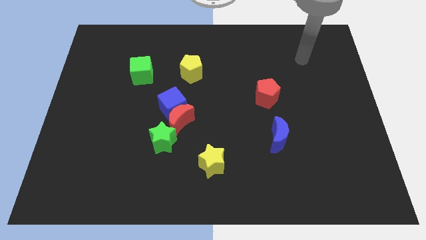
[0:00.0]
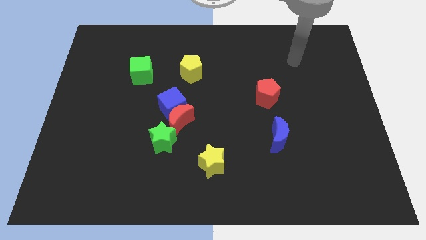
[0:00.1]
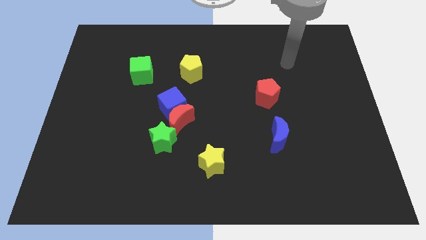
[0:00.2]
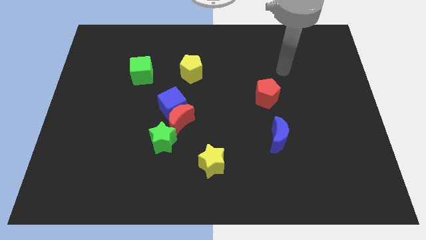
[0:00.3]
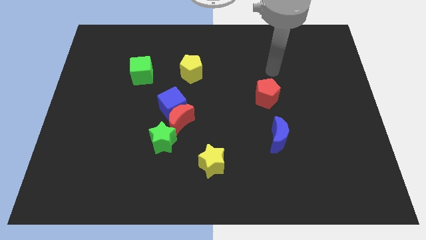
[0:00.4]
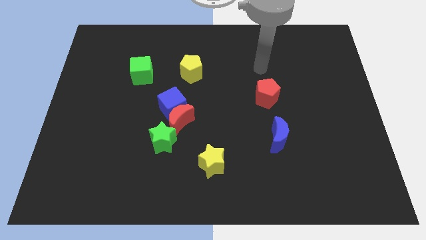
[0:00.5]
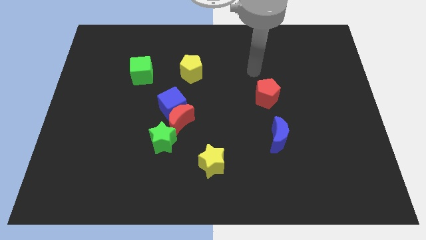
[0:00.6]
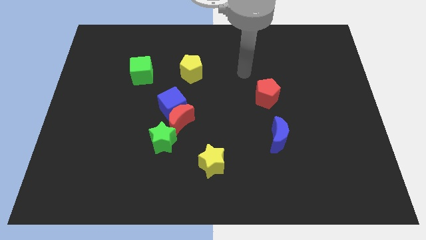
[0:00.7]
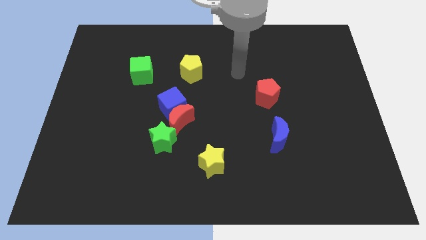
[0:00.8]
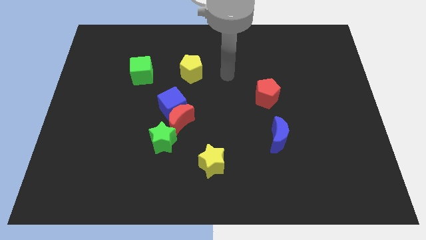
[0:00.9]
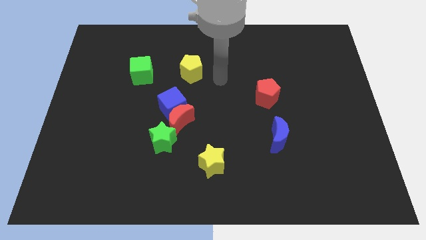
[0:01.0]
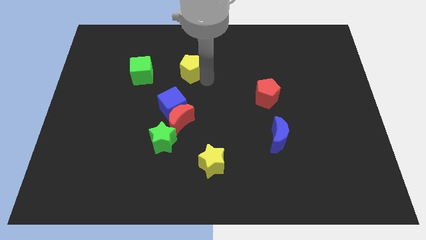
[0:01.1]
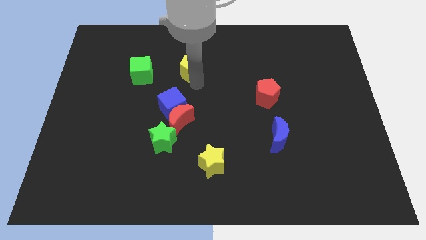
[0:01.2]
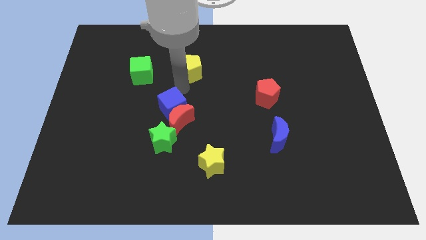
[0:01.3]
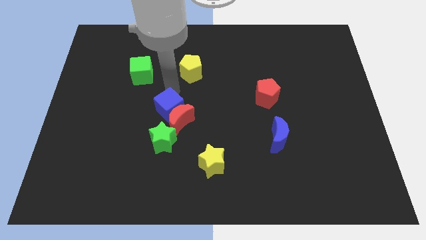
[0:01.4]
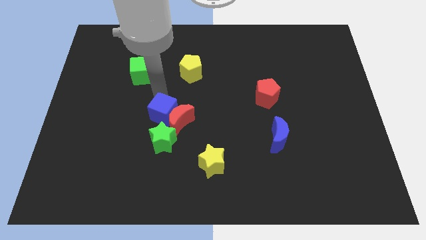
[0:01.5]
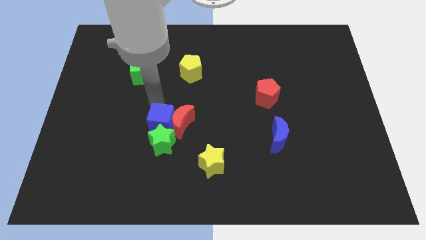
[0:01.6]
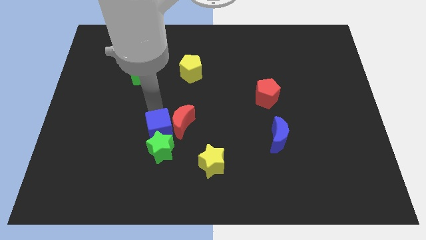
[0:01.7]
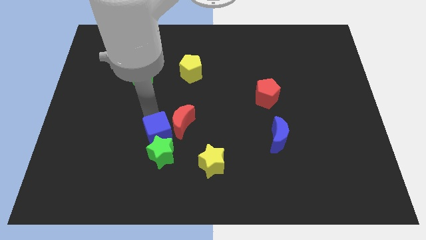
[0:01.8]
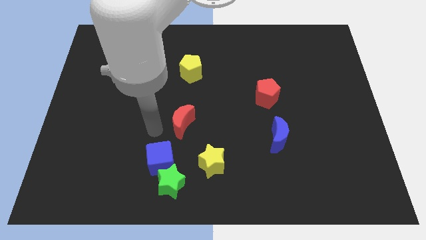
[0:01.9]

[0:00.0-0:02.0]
separate the red moon from the blue cube and green star

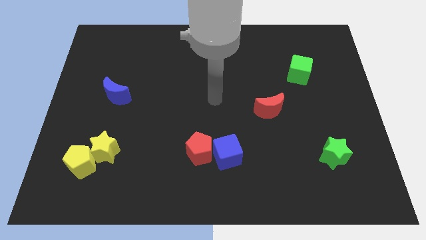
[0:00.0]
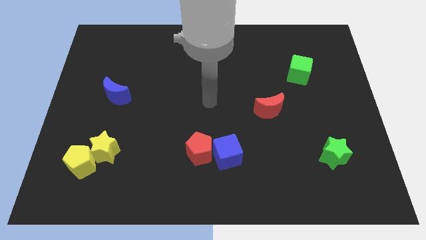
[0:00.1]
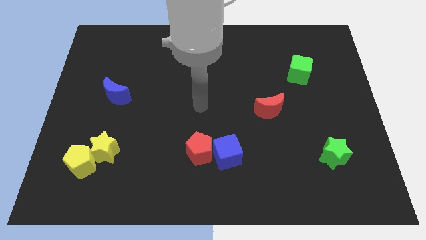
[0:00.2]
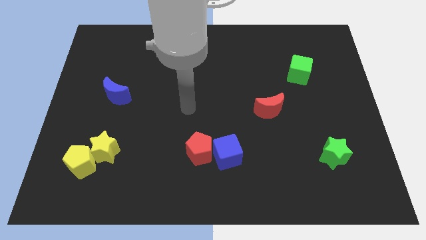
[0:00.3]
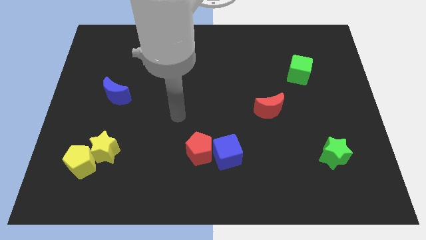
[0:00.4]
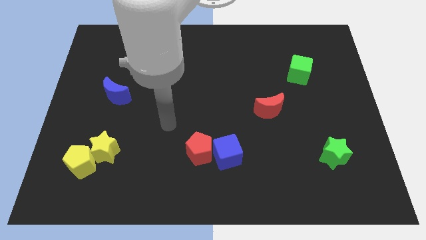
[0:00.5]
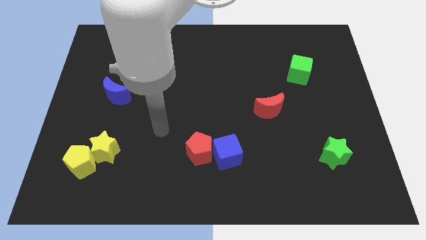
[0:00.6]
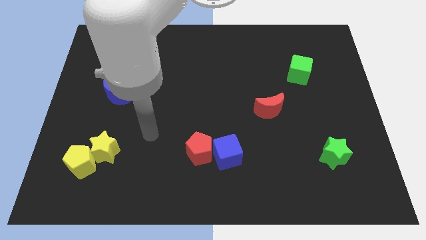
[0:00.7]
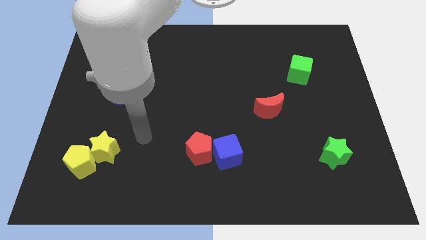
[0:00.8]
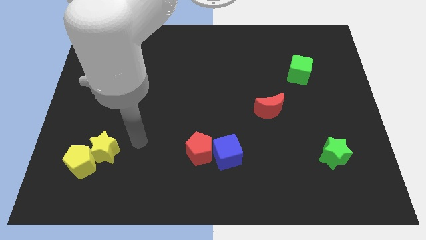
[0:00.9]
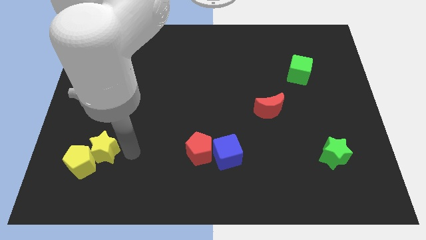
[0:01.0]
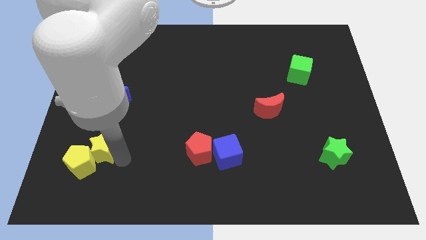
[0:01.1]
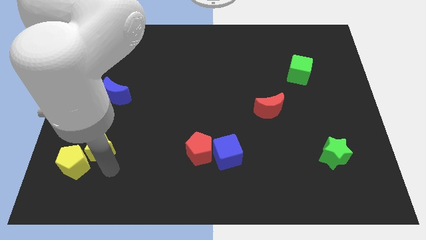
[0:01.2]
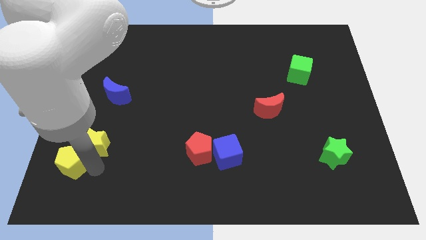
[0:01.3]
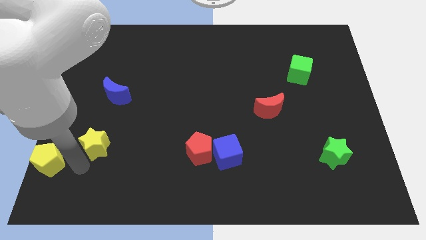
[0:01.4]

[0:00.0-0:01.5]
separate the yellow star from the yellow pentagon

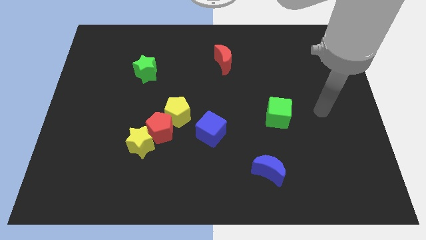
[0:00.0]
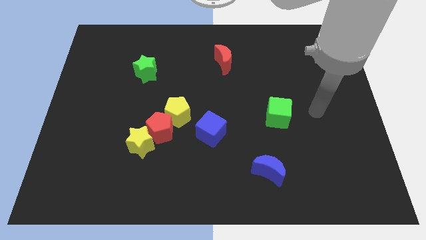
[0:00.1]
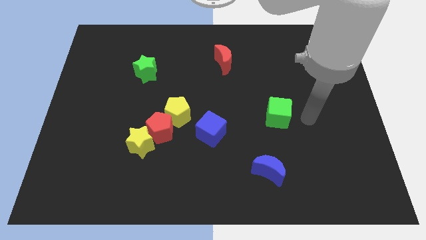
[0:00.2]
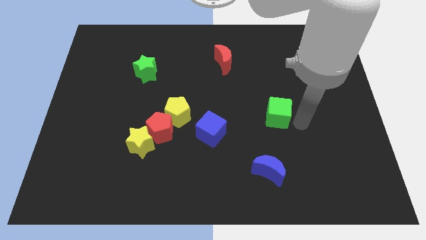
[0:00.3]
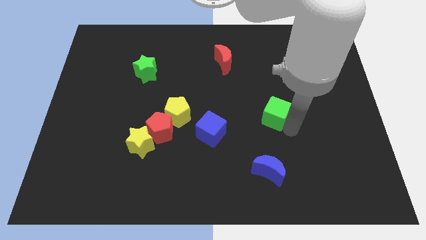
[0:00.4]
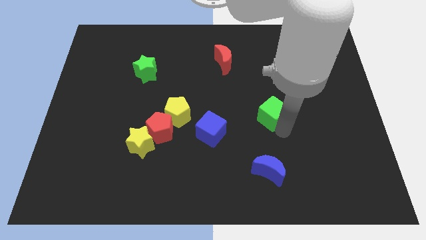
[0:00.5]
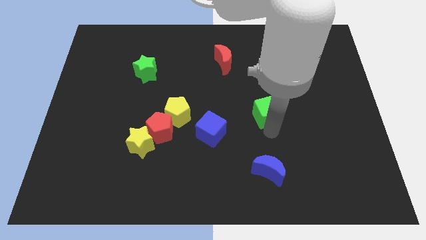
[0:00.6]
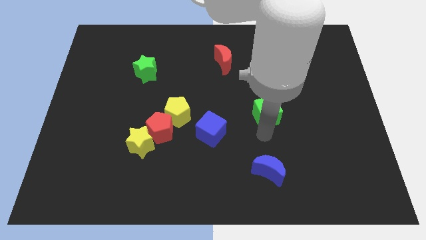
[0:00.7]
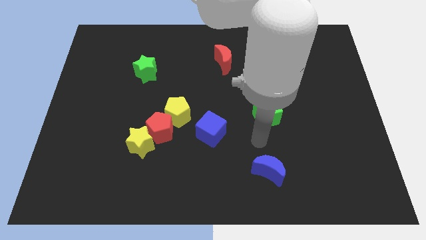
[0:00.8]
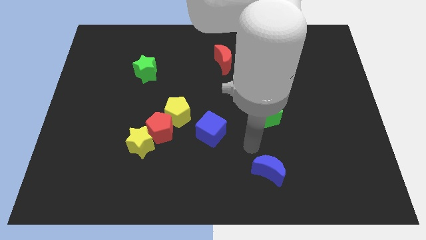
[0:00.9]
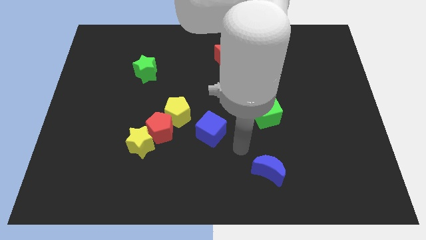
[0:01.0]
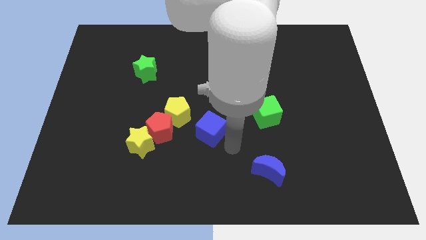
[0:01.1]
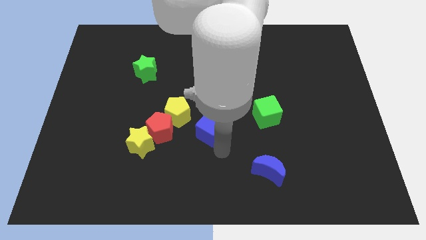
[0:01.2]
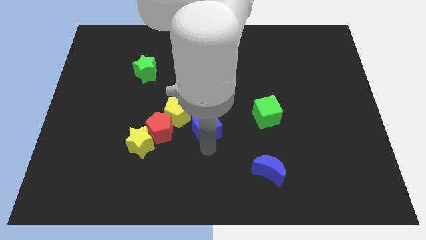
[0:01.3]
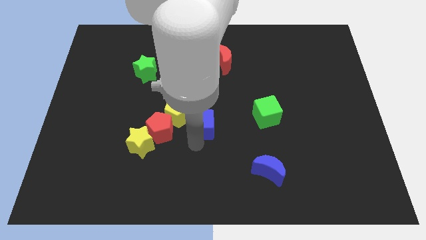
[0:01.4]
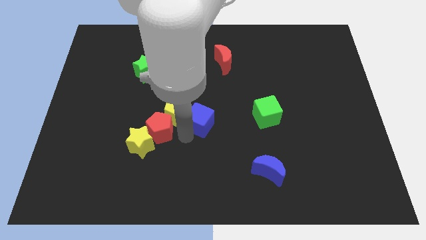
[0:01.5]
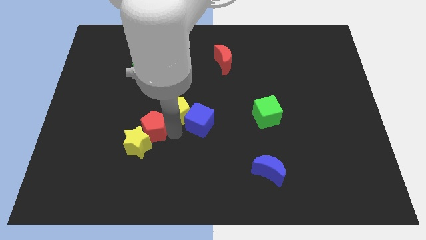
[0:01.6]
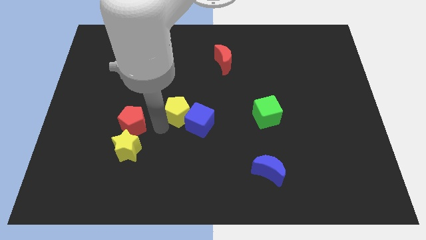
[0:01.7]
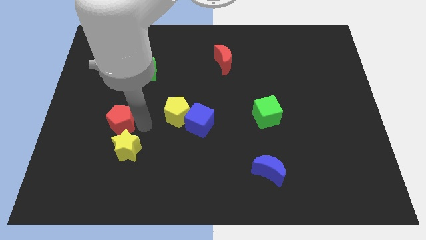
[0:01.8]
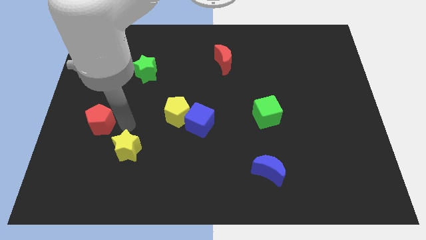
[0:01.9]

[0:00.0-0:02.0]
move the yellow star away from the red pentagon

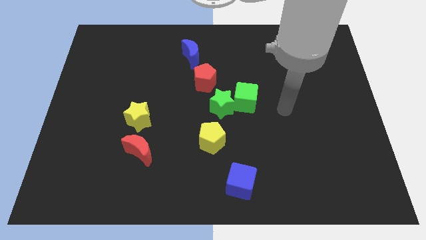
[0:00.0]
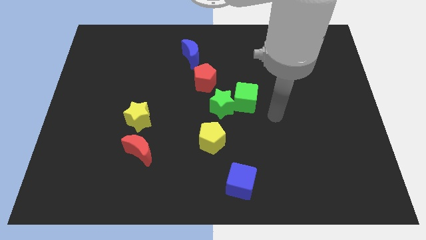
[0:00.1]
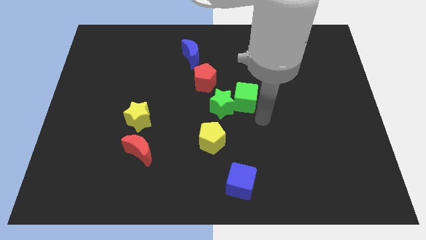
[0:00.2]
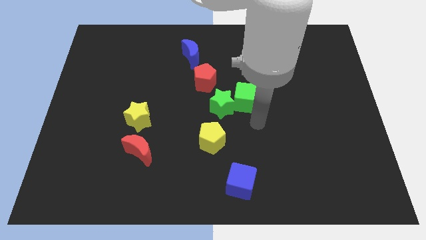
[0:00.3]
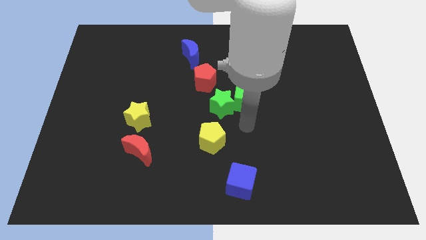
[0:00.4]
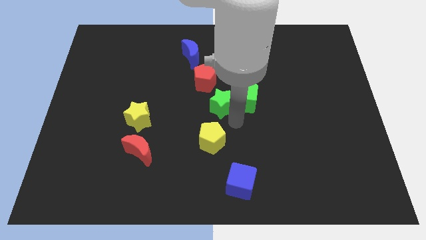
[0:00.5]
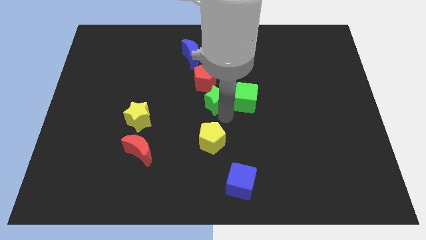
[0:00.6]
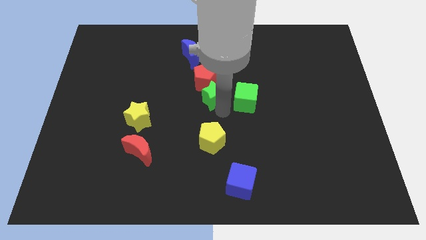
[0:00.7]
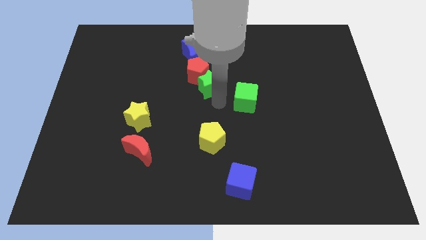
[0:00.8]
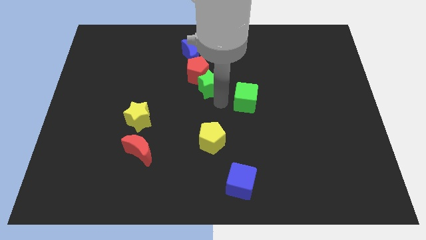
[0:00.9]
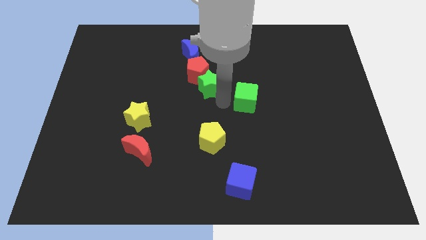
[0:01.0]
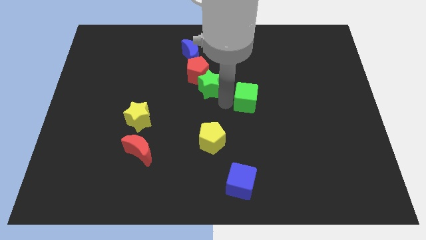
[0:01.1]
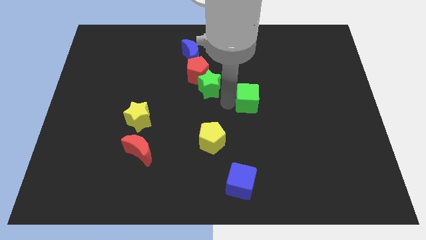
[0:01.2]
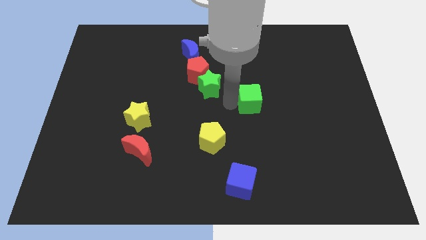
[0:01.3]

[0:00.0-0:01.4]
separate the green cube from the green star

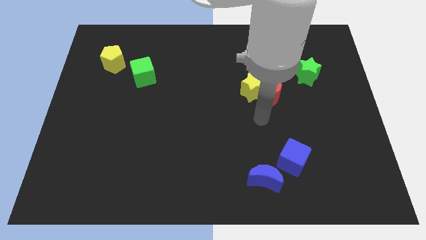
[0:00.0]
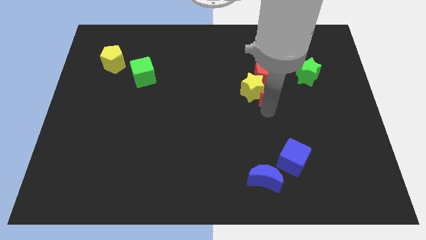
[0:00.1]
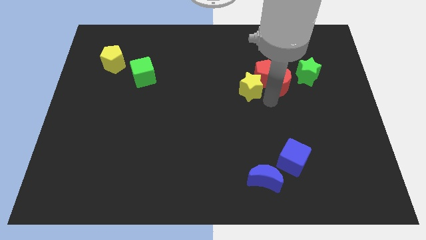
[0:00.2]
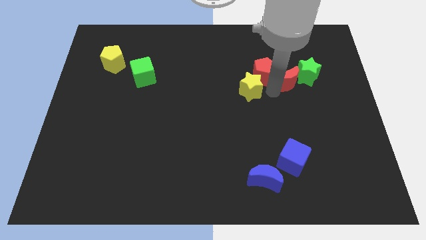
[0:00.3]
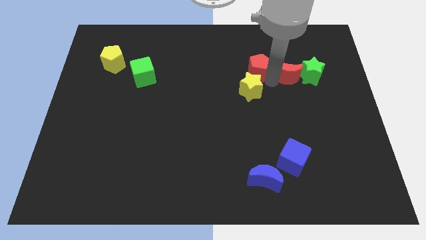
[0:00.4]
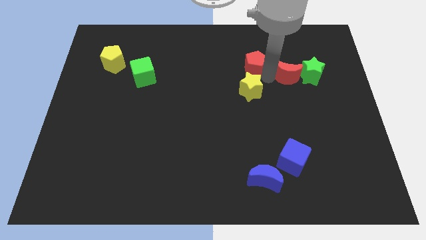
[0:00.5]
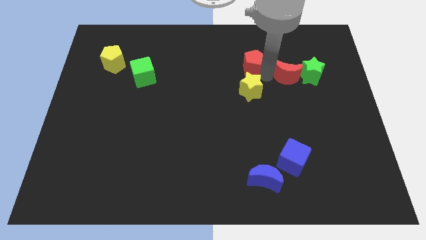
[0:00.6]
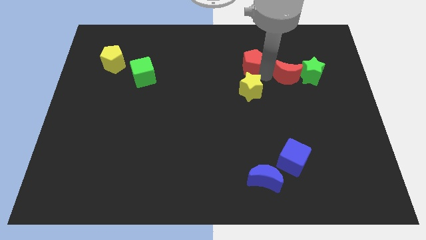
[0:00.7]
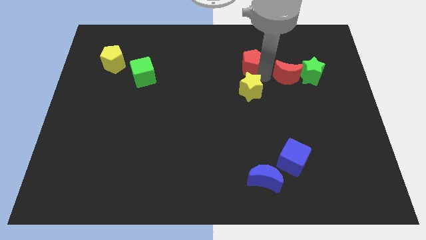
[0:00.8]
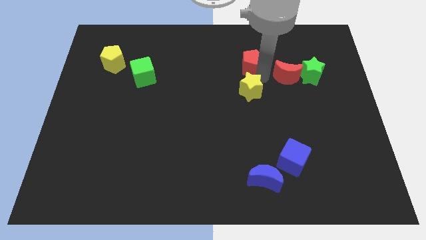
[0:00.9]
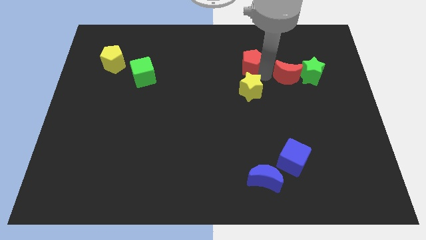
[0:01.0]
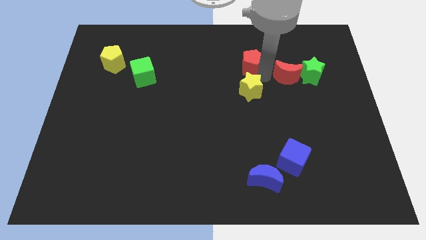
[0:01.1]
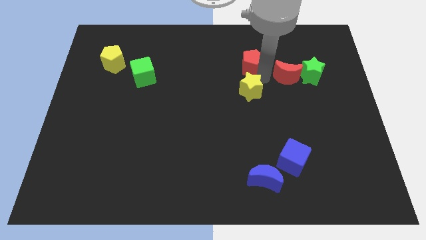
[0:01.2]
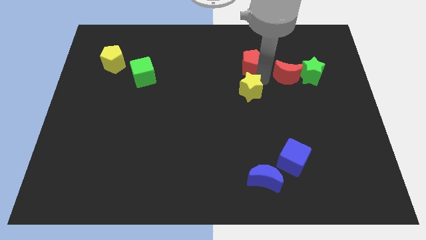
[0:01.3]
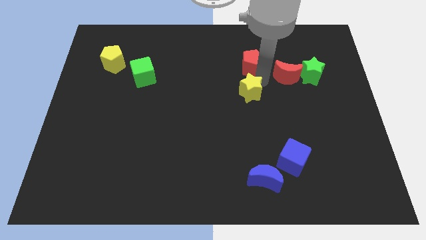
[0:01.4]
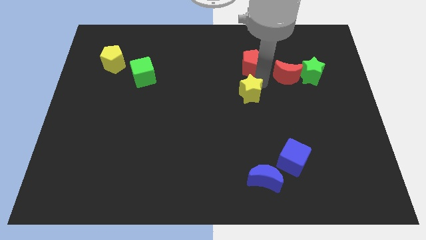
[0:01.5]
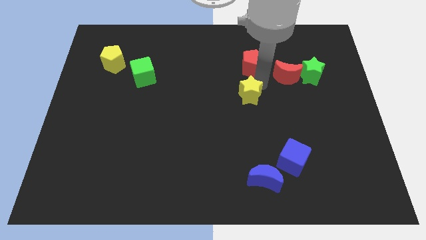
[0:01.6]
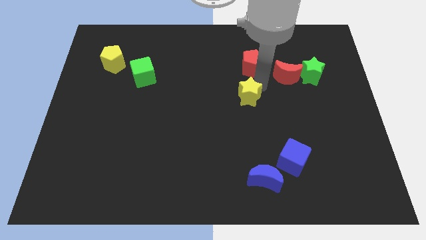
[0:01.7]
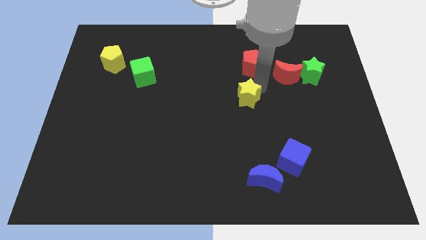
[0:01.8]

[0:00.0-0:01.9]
move the yellow star away from the red moon and red pentagon

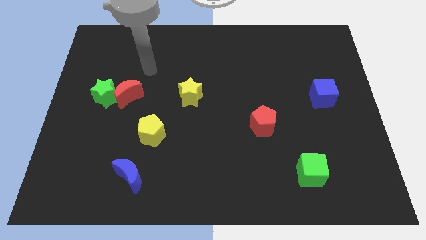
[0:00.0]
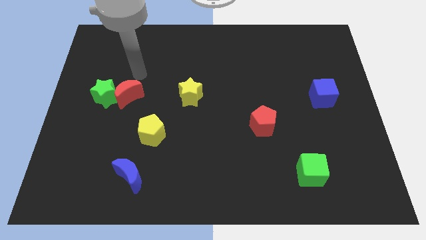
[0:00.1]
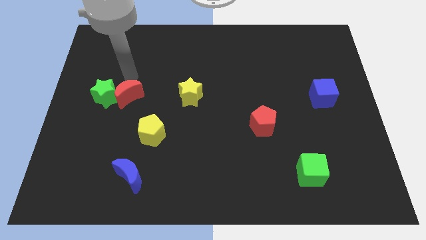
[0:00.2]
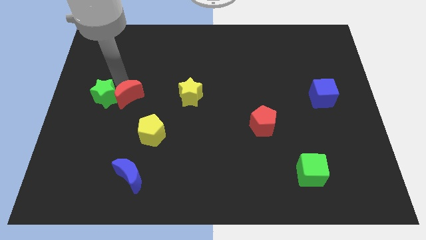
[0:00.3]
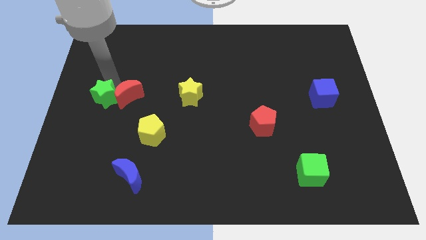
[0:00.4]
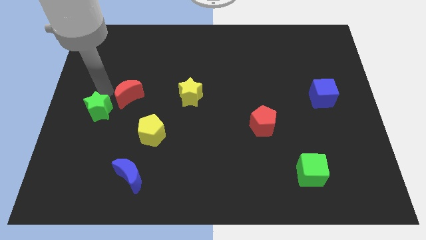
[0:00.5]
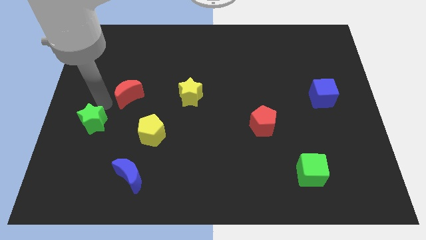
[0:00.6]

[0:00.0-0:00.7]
pull the red moon apart from the green star
